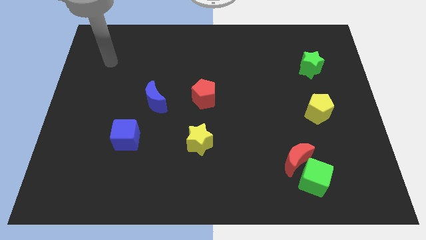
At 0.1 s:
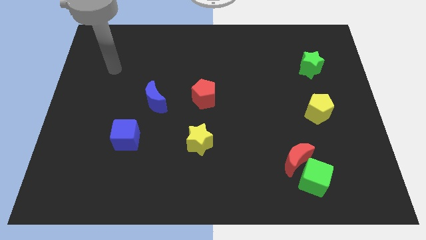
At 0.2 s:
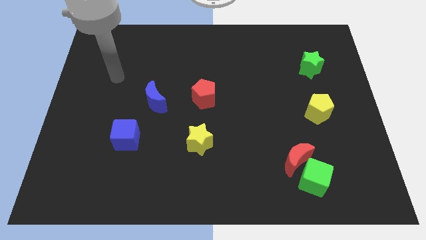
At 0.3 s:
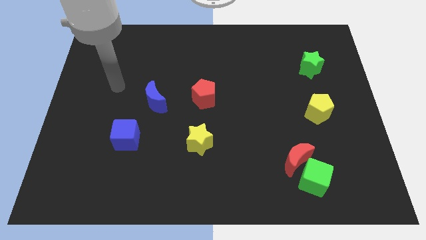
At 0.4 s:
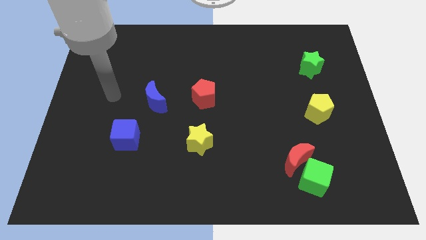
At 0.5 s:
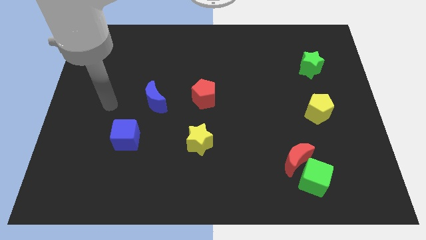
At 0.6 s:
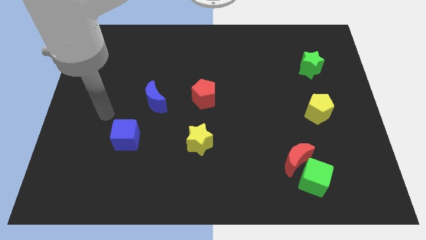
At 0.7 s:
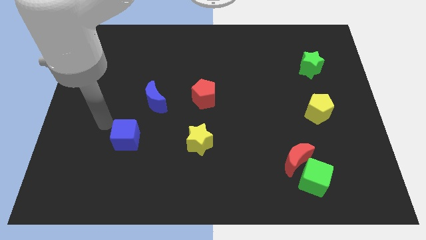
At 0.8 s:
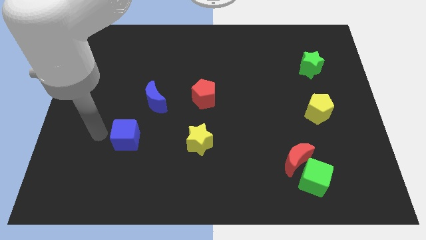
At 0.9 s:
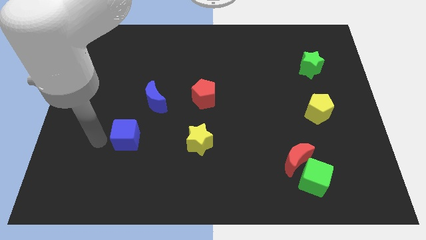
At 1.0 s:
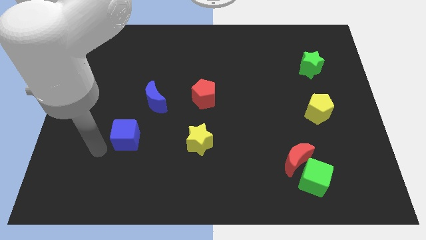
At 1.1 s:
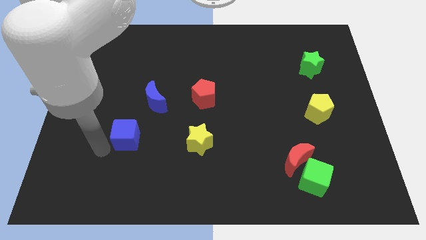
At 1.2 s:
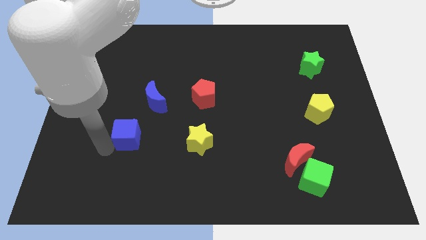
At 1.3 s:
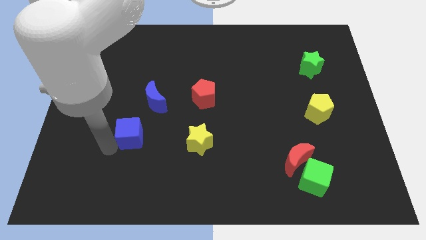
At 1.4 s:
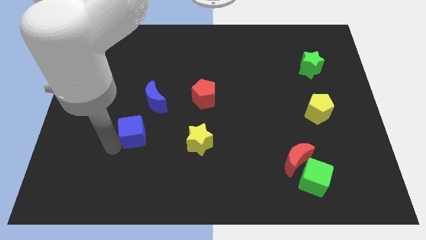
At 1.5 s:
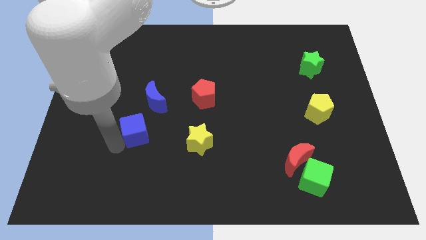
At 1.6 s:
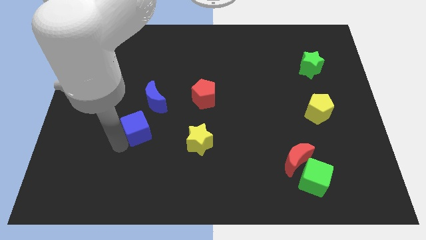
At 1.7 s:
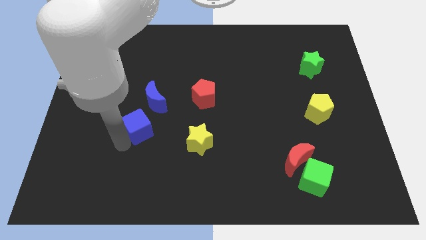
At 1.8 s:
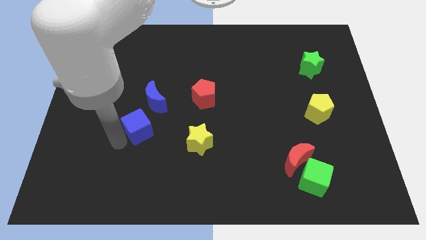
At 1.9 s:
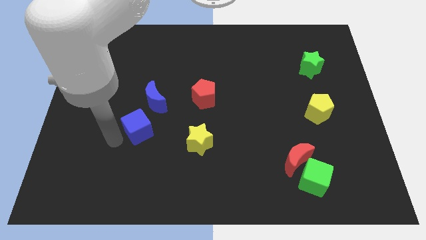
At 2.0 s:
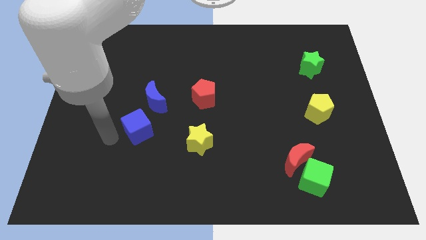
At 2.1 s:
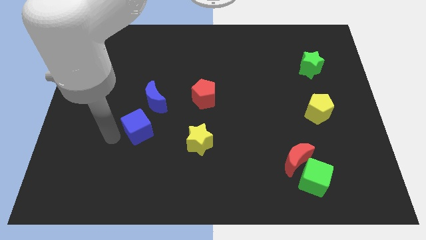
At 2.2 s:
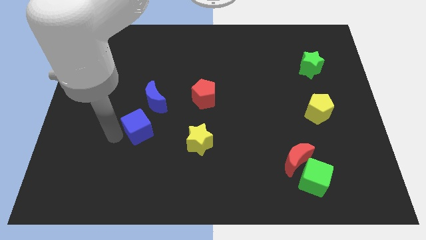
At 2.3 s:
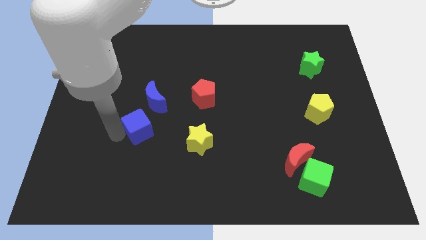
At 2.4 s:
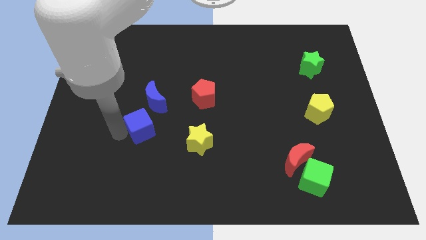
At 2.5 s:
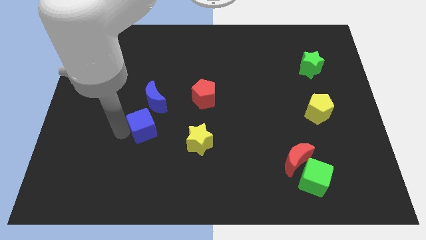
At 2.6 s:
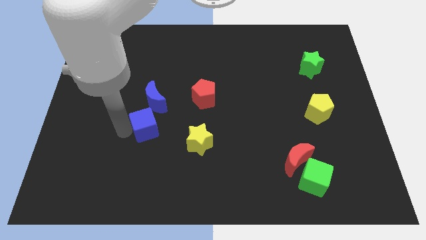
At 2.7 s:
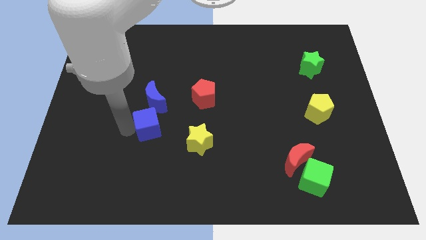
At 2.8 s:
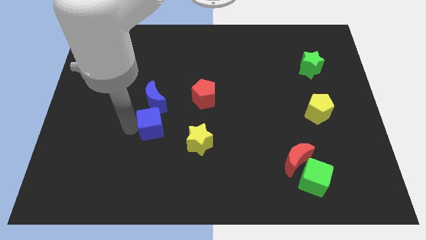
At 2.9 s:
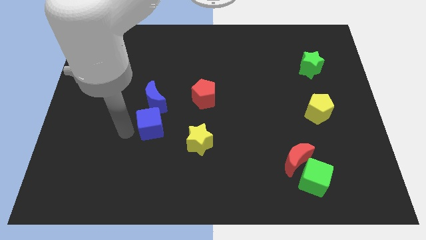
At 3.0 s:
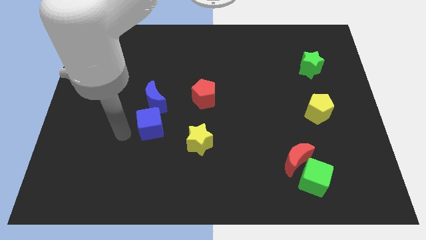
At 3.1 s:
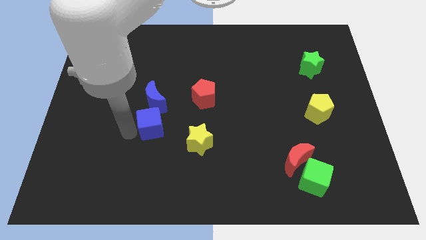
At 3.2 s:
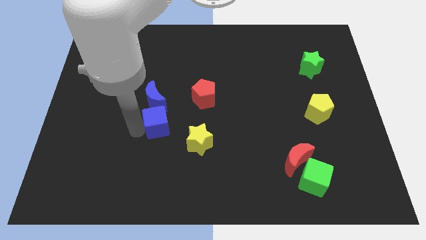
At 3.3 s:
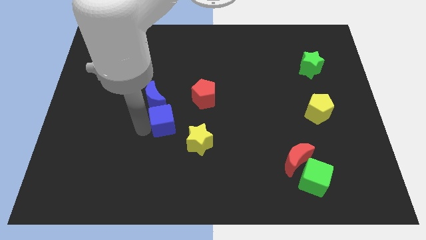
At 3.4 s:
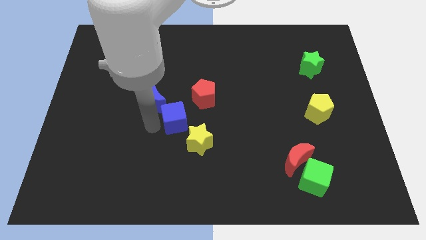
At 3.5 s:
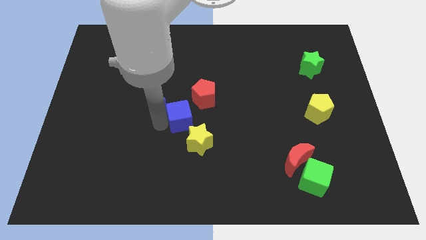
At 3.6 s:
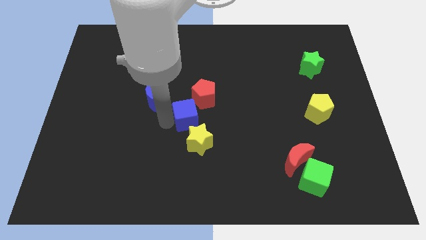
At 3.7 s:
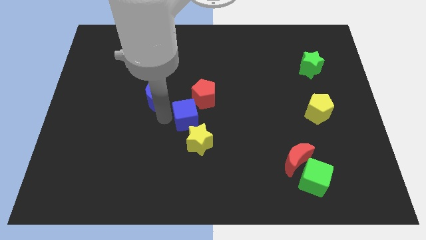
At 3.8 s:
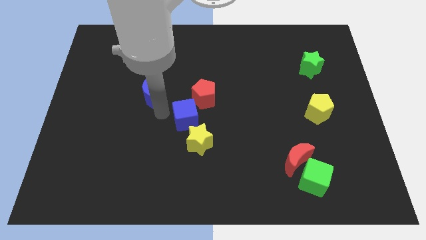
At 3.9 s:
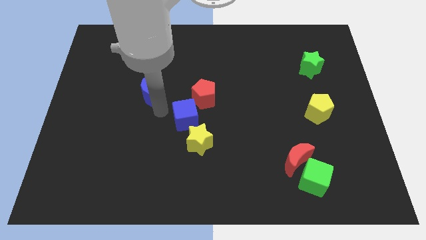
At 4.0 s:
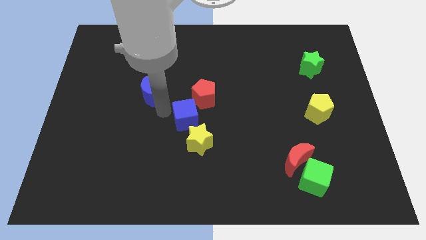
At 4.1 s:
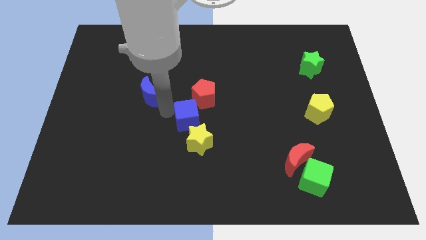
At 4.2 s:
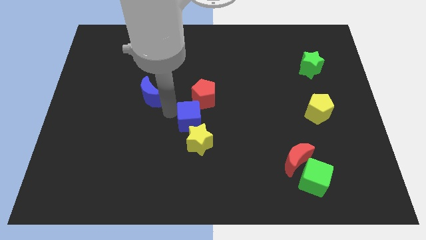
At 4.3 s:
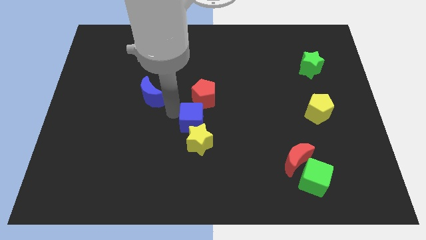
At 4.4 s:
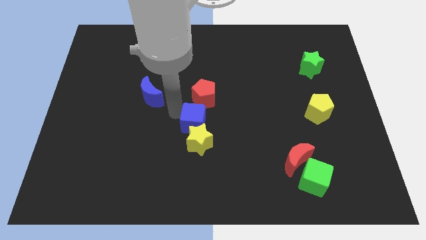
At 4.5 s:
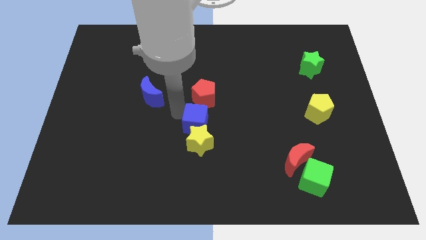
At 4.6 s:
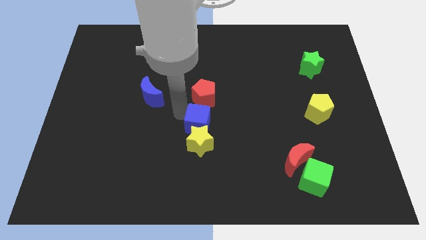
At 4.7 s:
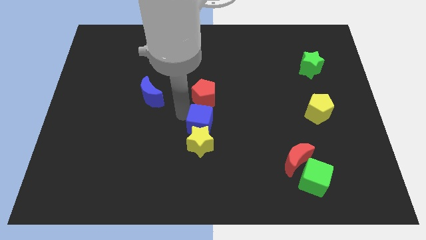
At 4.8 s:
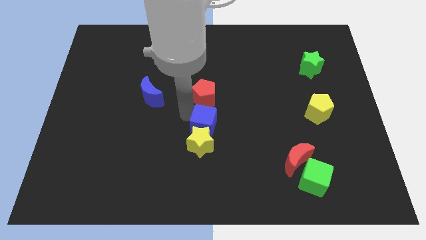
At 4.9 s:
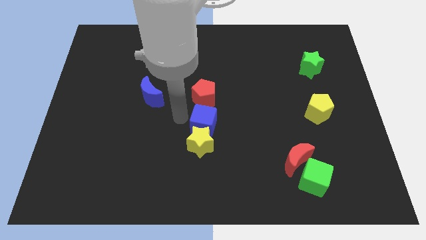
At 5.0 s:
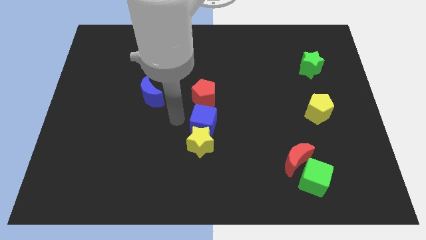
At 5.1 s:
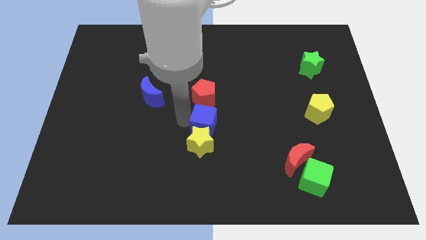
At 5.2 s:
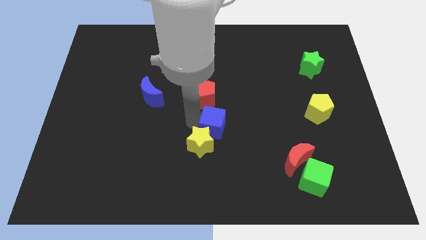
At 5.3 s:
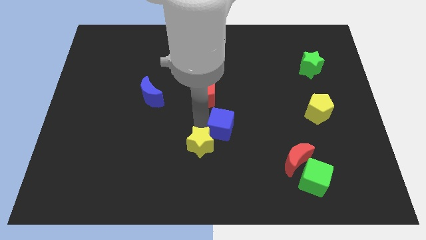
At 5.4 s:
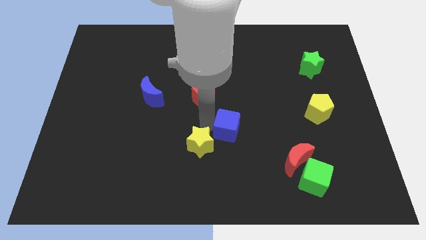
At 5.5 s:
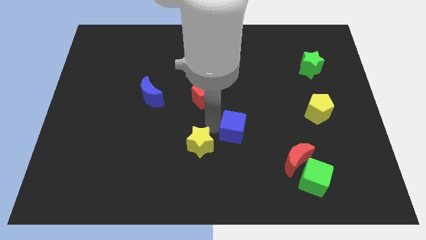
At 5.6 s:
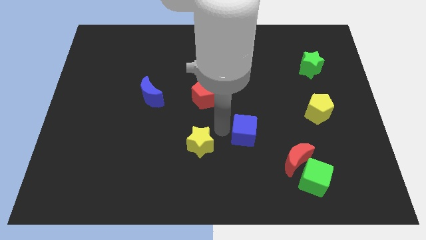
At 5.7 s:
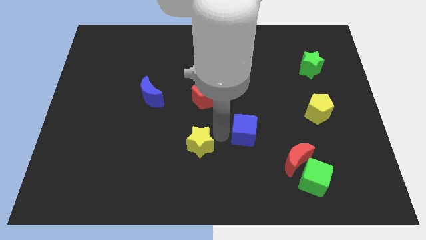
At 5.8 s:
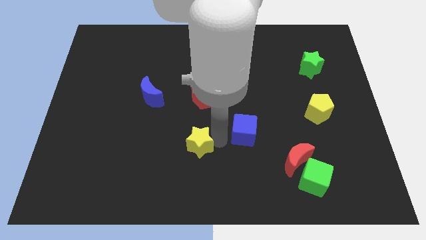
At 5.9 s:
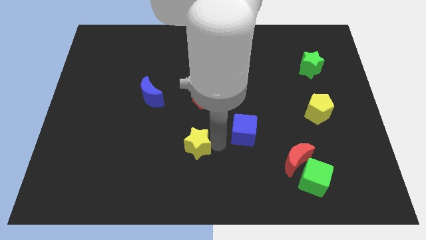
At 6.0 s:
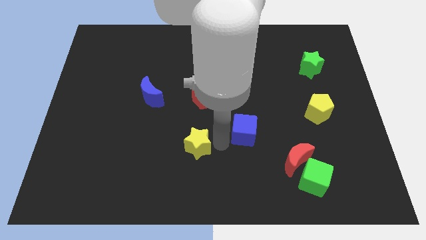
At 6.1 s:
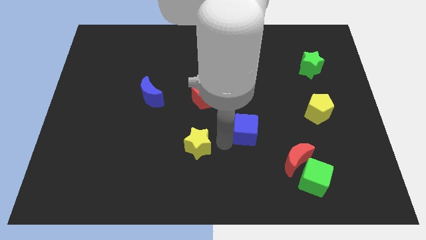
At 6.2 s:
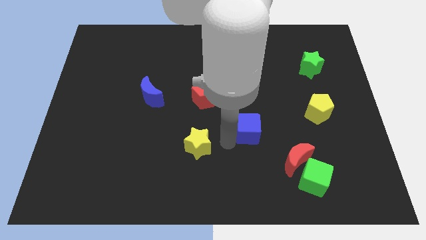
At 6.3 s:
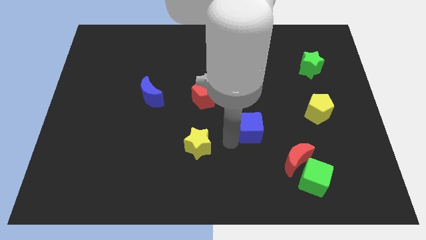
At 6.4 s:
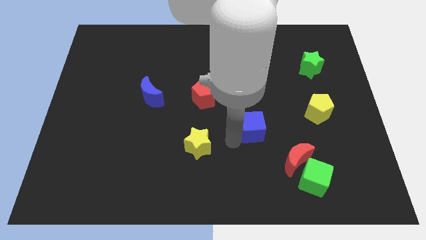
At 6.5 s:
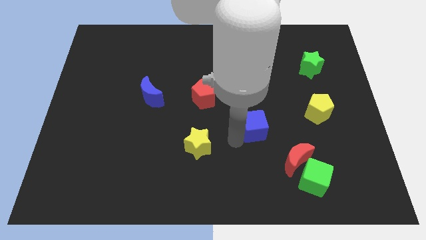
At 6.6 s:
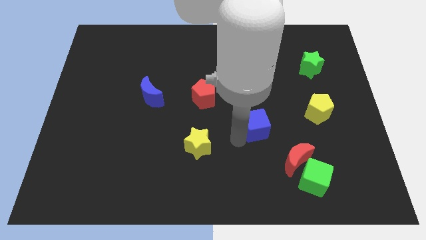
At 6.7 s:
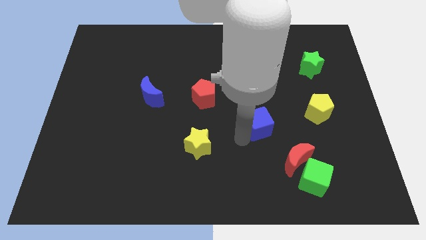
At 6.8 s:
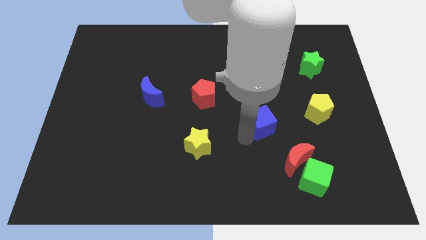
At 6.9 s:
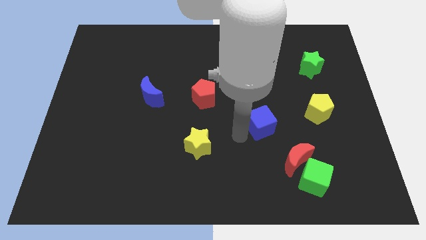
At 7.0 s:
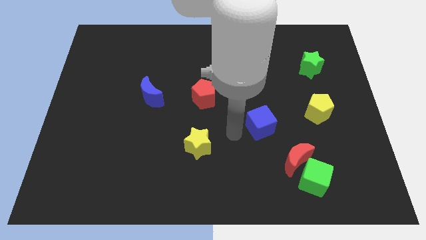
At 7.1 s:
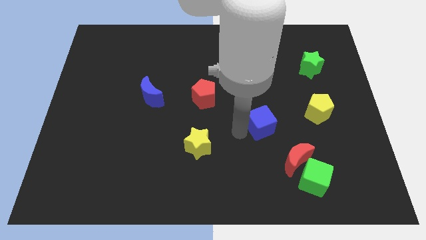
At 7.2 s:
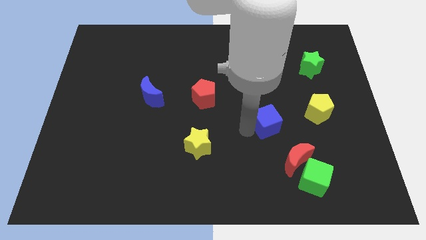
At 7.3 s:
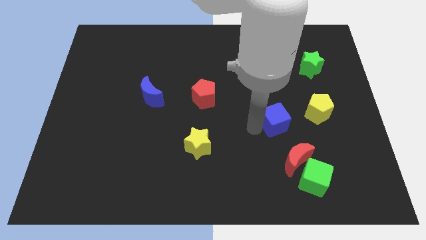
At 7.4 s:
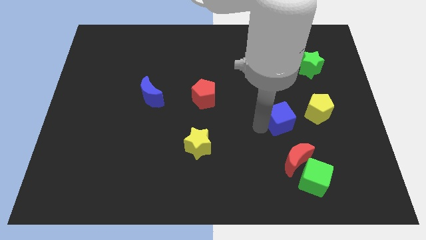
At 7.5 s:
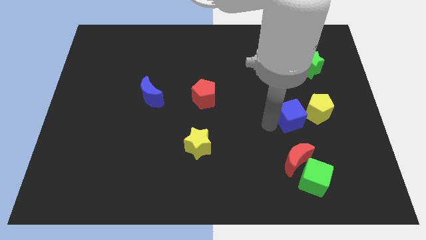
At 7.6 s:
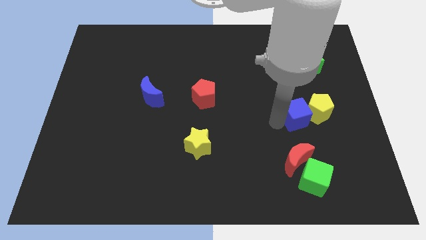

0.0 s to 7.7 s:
put the blue cube next to the yellow pentagon
